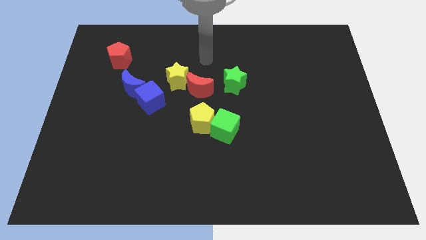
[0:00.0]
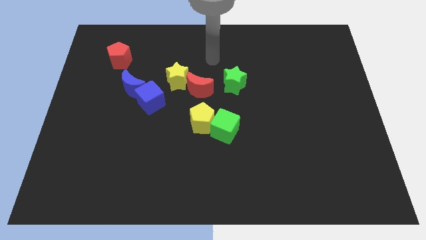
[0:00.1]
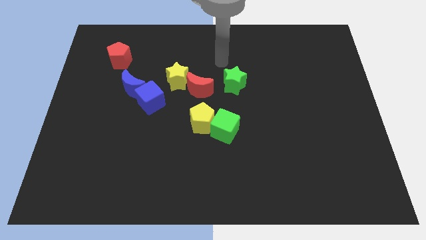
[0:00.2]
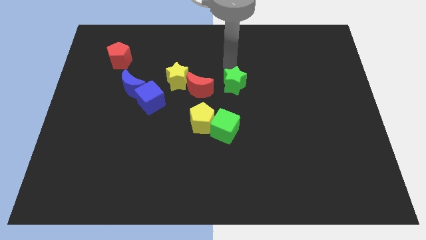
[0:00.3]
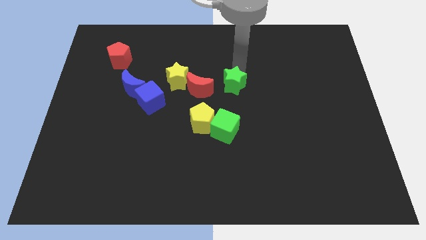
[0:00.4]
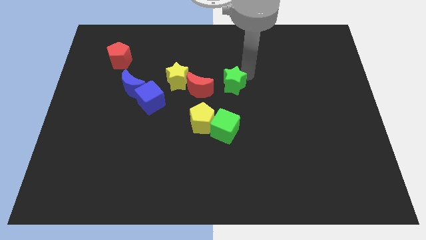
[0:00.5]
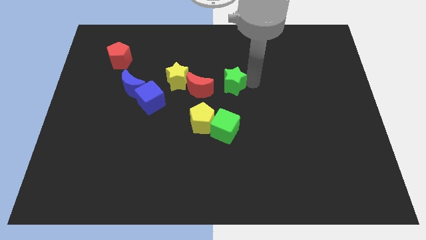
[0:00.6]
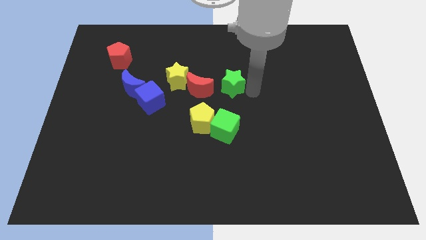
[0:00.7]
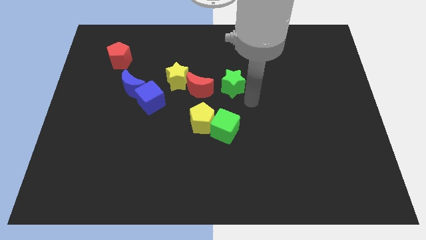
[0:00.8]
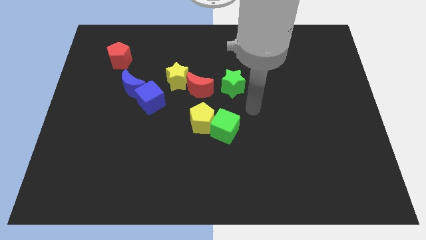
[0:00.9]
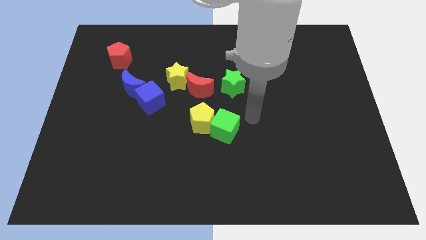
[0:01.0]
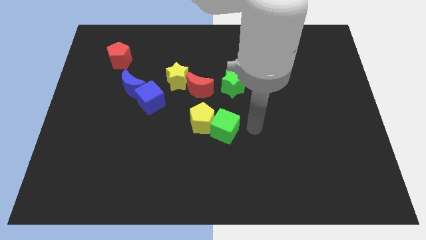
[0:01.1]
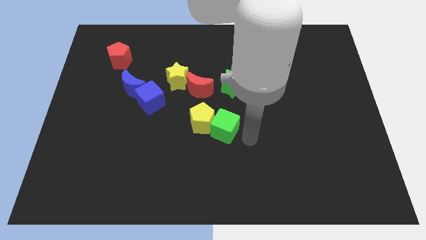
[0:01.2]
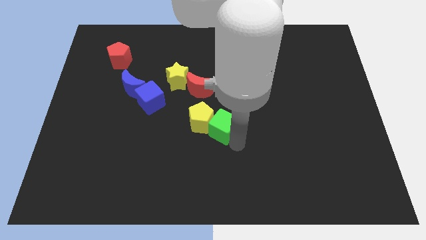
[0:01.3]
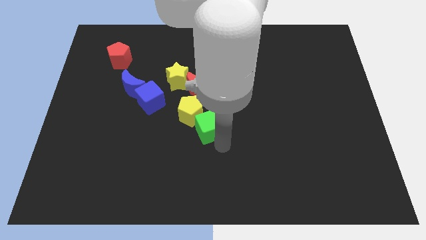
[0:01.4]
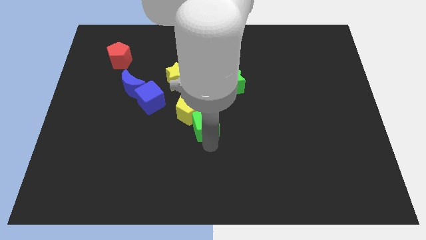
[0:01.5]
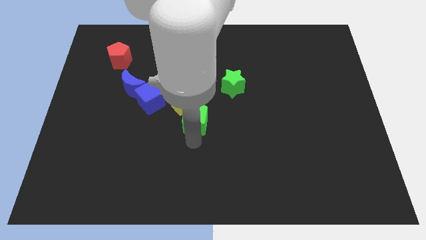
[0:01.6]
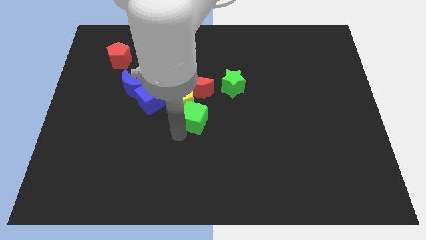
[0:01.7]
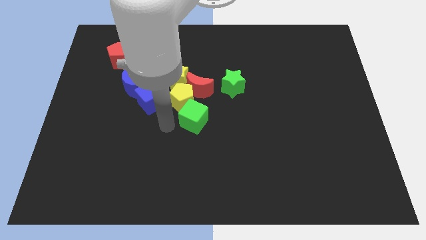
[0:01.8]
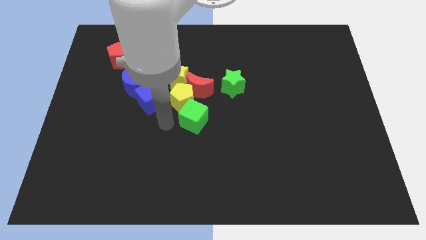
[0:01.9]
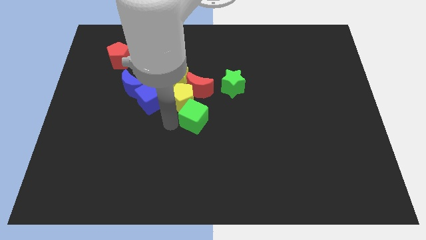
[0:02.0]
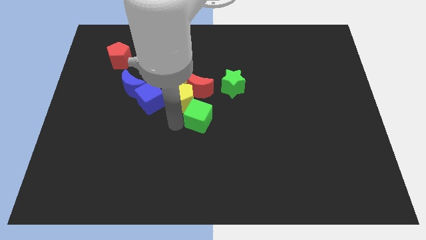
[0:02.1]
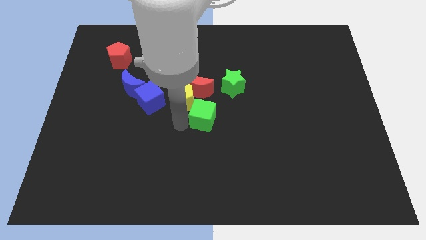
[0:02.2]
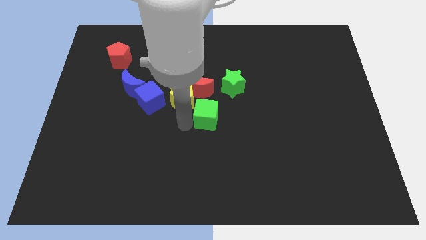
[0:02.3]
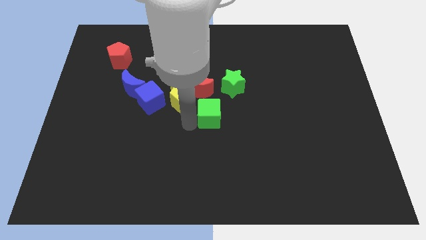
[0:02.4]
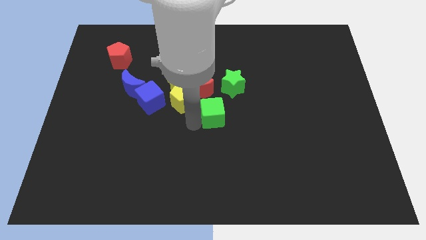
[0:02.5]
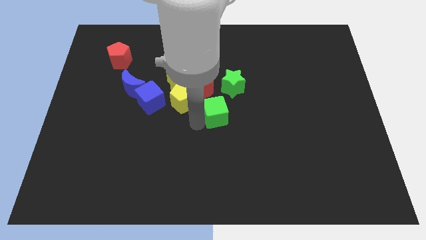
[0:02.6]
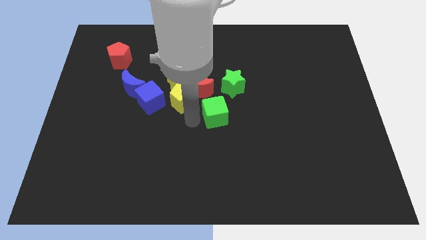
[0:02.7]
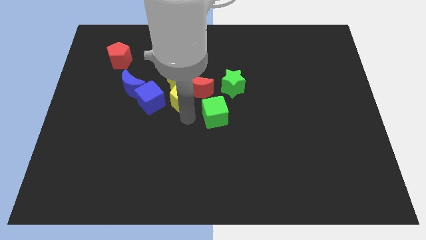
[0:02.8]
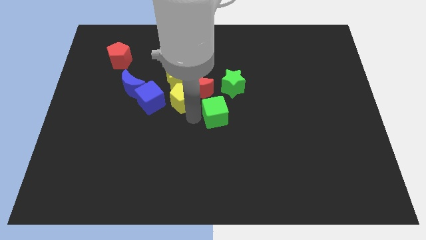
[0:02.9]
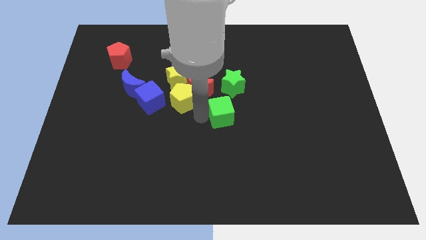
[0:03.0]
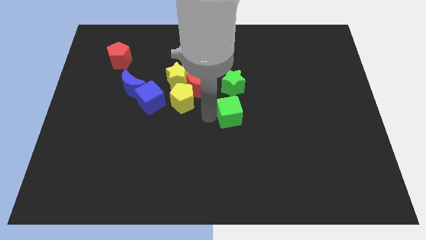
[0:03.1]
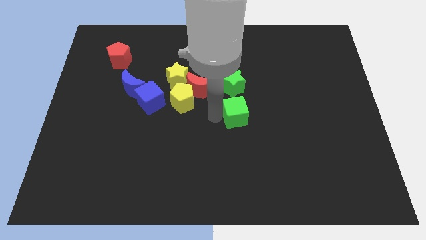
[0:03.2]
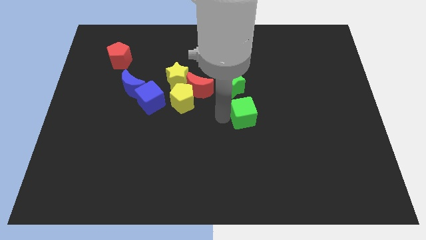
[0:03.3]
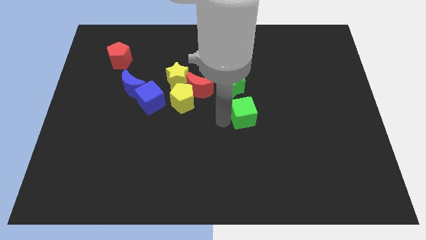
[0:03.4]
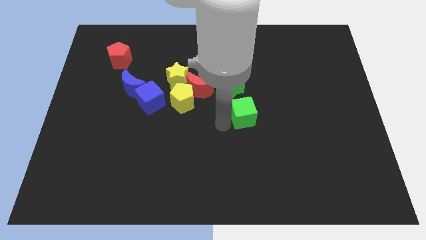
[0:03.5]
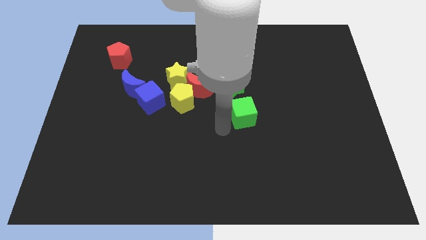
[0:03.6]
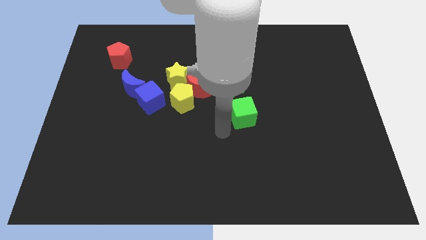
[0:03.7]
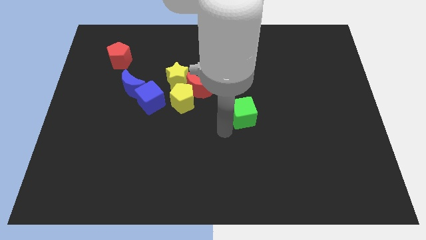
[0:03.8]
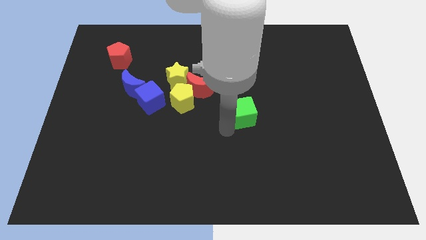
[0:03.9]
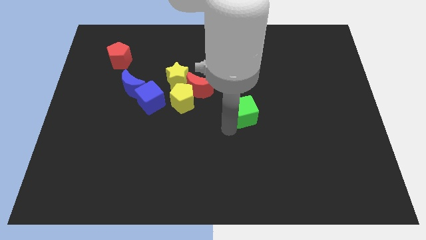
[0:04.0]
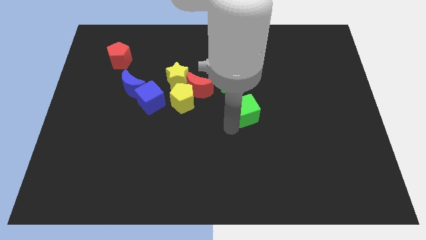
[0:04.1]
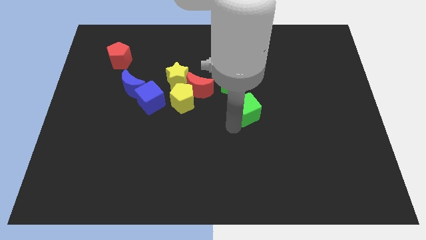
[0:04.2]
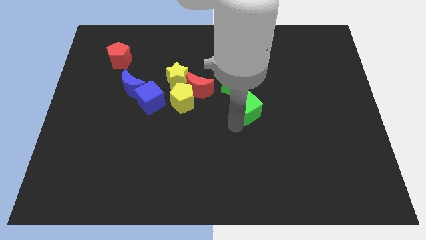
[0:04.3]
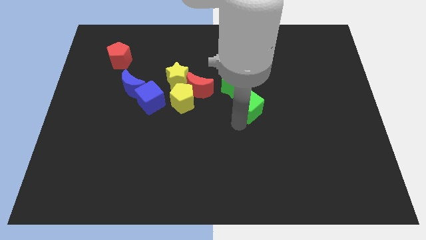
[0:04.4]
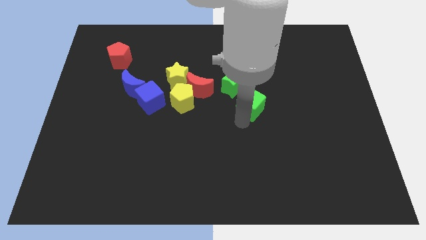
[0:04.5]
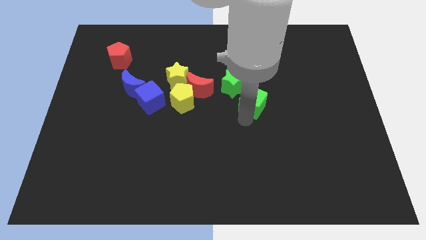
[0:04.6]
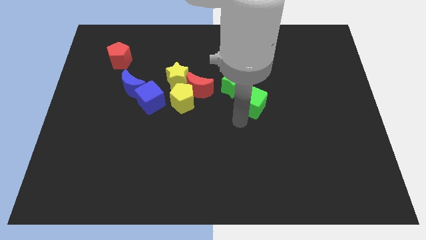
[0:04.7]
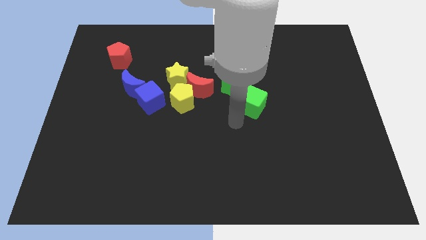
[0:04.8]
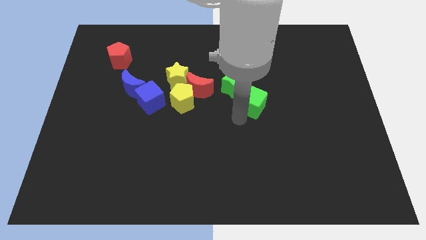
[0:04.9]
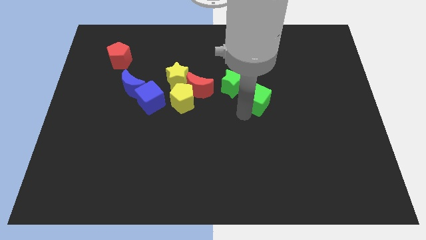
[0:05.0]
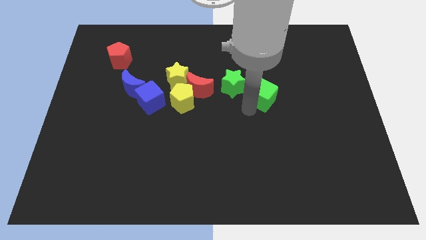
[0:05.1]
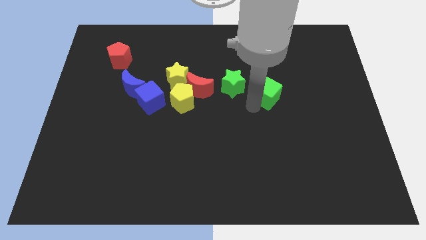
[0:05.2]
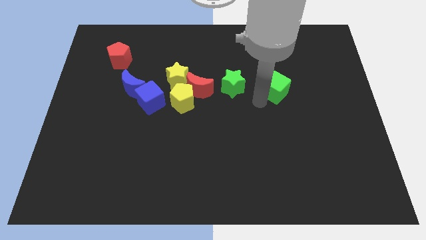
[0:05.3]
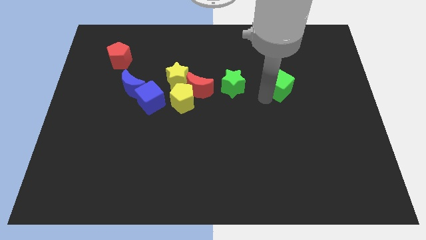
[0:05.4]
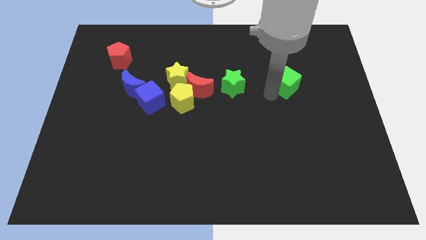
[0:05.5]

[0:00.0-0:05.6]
push the green cube upwards and right diagonally

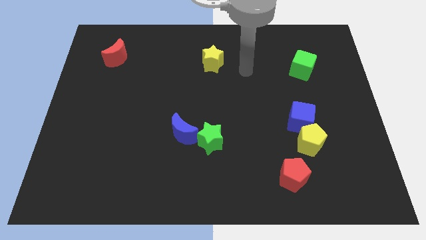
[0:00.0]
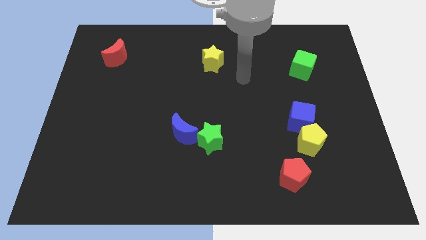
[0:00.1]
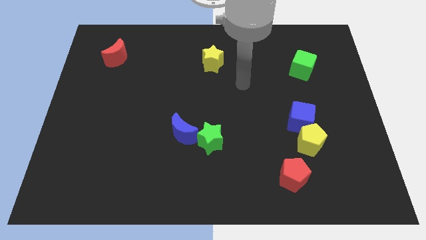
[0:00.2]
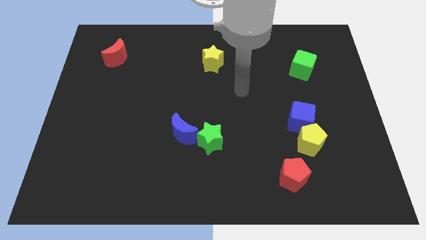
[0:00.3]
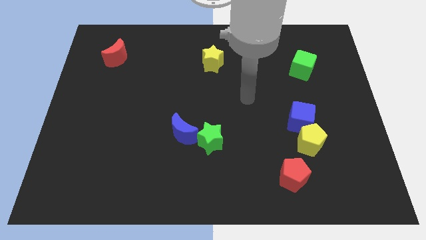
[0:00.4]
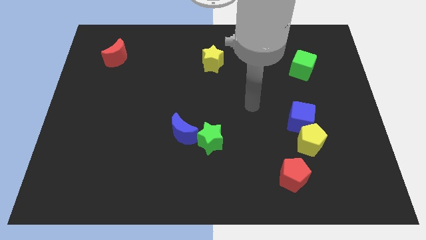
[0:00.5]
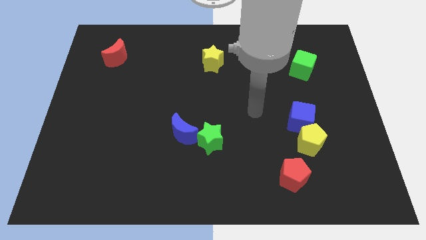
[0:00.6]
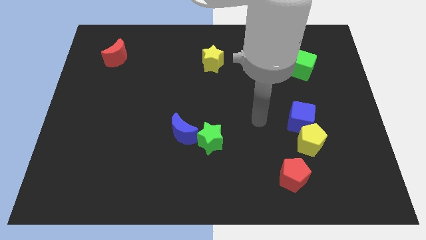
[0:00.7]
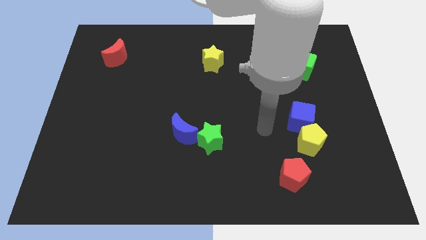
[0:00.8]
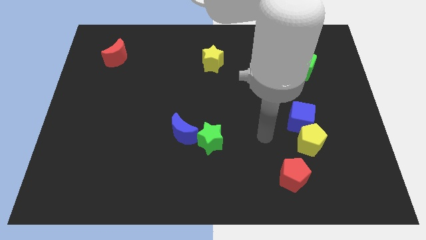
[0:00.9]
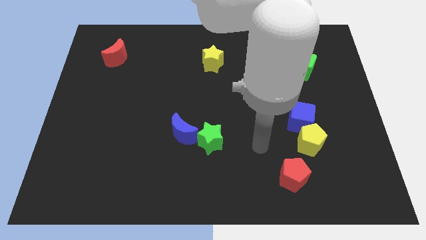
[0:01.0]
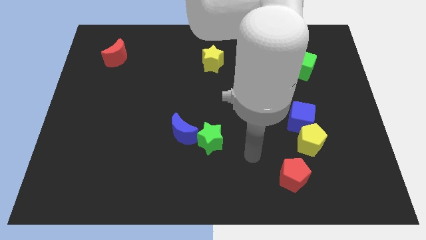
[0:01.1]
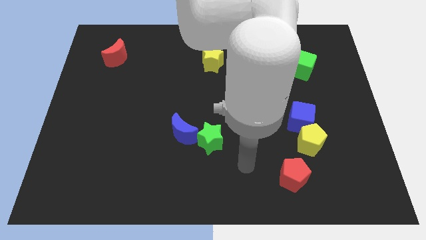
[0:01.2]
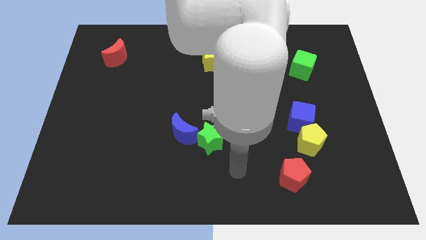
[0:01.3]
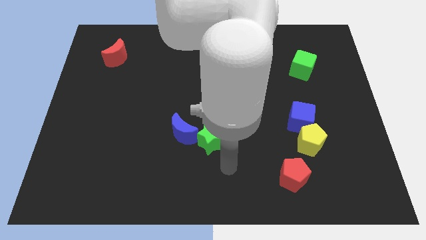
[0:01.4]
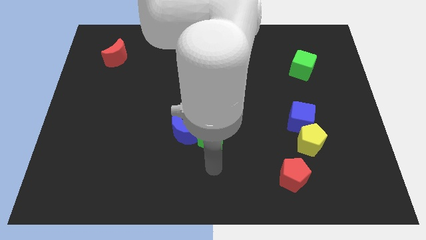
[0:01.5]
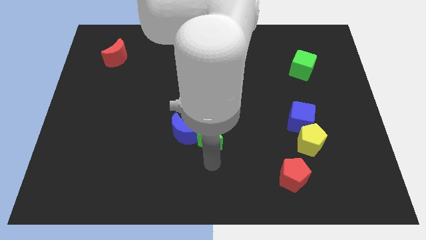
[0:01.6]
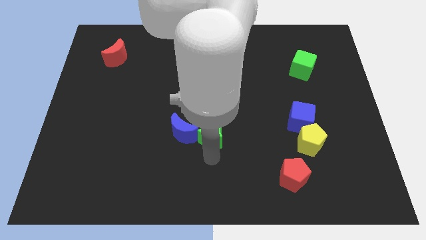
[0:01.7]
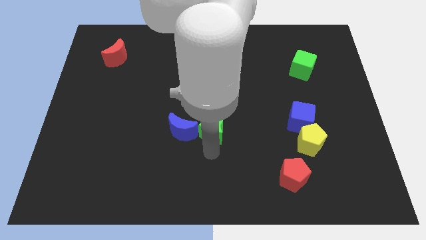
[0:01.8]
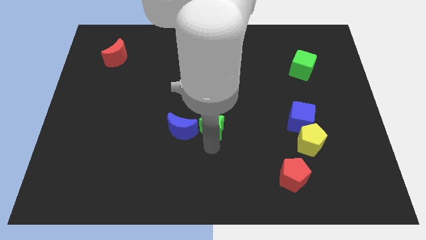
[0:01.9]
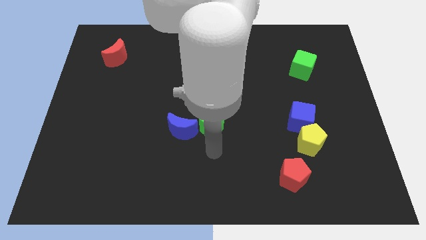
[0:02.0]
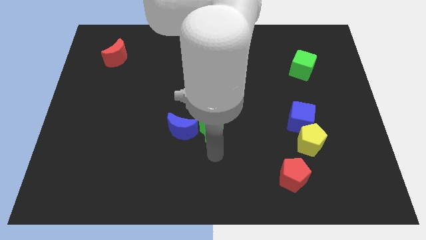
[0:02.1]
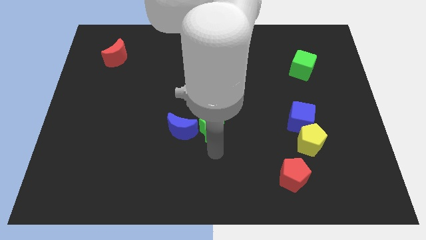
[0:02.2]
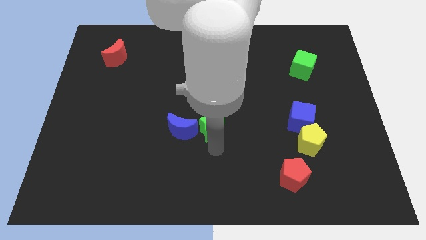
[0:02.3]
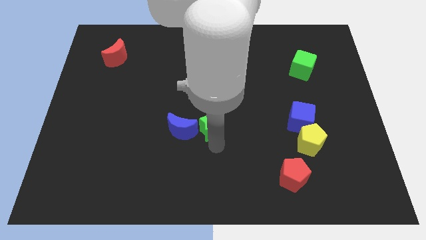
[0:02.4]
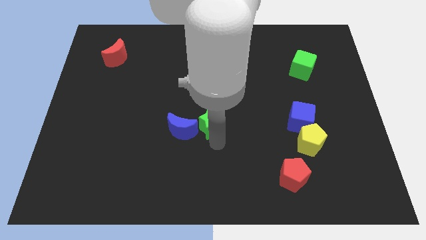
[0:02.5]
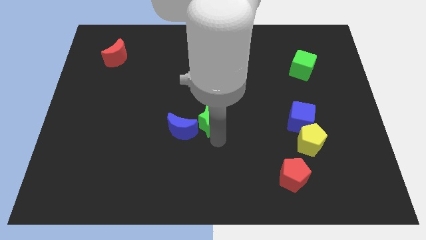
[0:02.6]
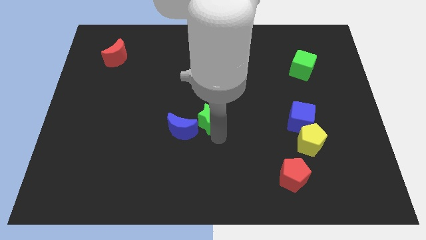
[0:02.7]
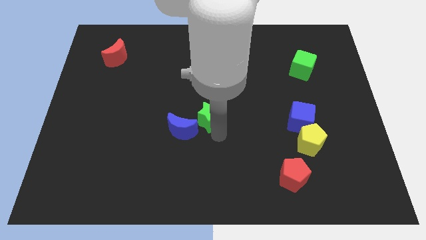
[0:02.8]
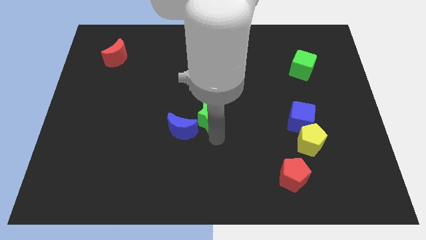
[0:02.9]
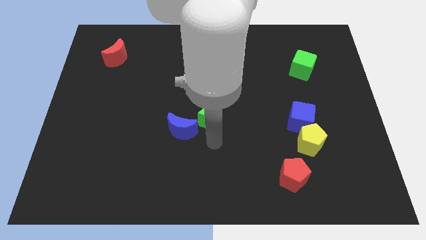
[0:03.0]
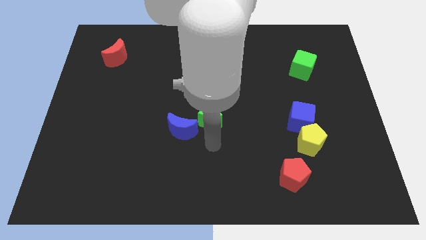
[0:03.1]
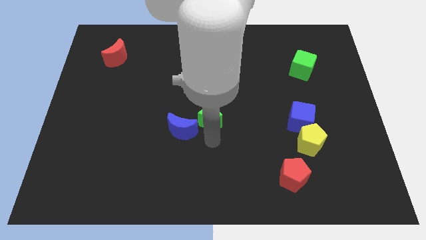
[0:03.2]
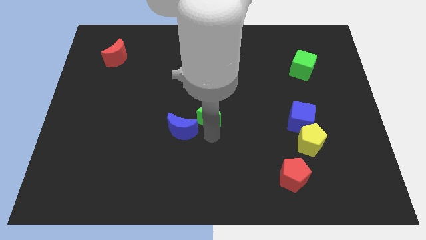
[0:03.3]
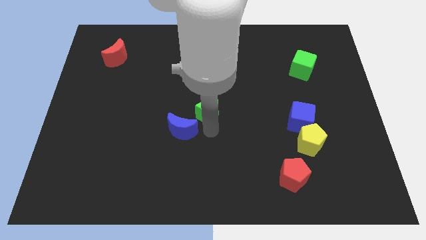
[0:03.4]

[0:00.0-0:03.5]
slide the green star a little upwards
